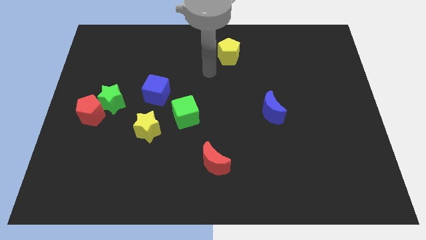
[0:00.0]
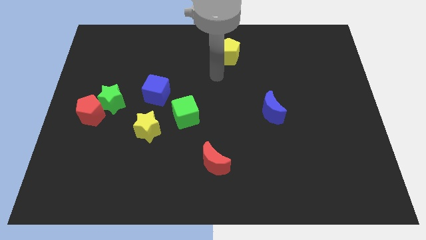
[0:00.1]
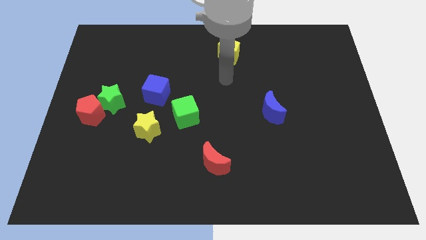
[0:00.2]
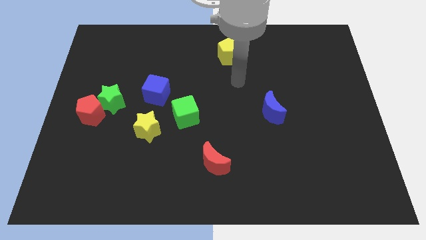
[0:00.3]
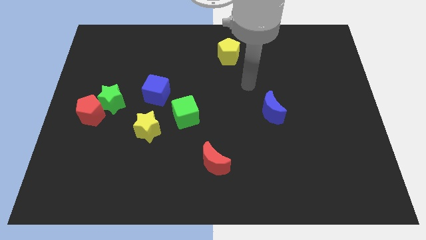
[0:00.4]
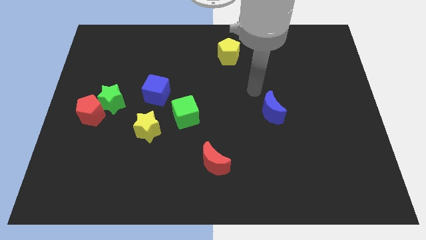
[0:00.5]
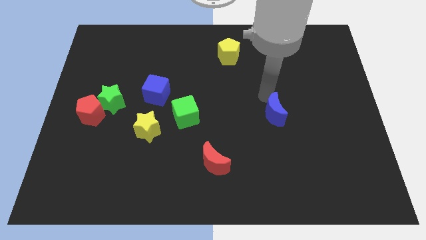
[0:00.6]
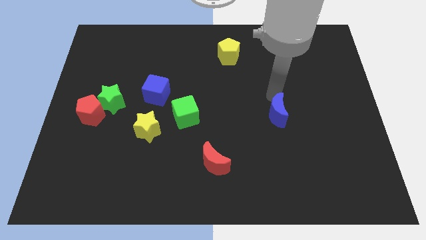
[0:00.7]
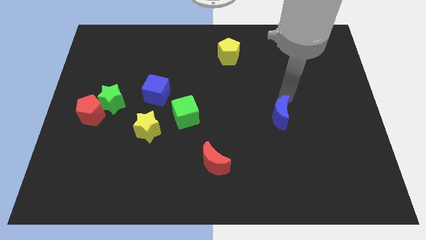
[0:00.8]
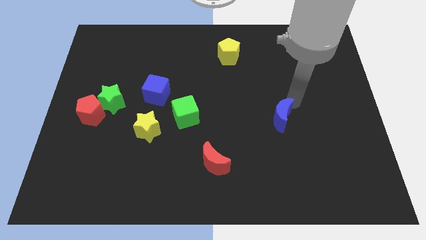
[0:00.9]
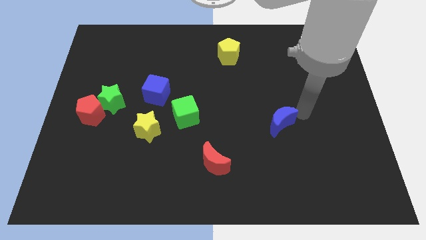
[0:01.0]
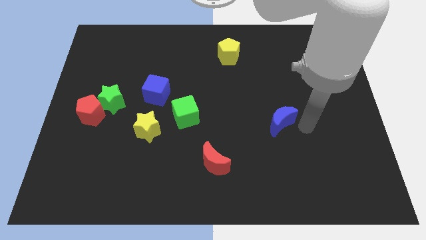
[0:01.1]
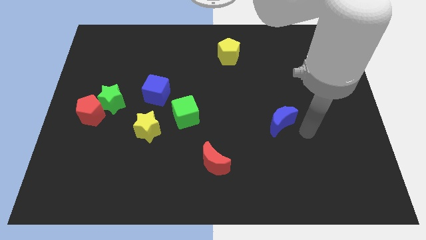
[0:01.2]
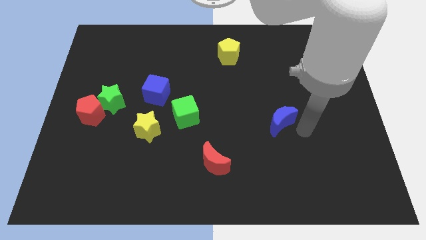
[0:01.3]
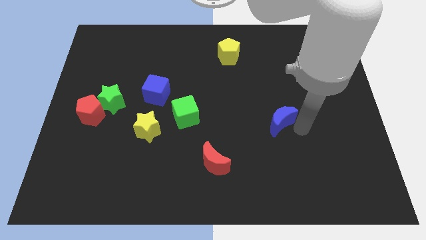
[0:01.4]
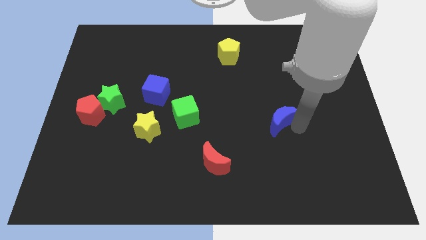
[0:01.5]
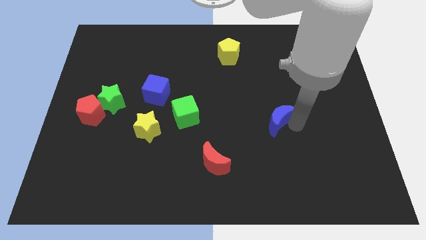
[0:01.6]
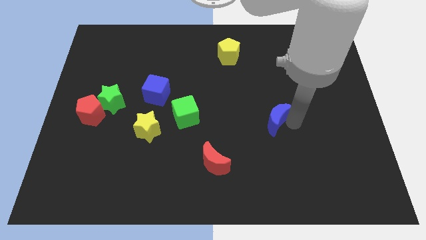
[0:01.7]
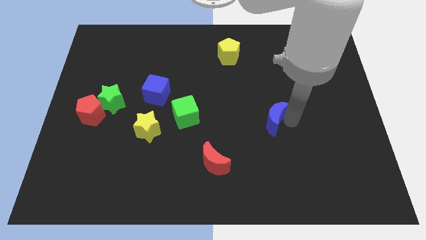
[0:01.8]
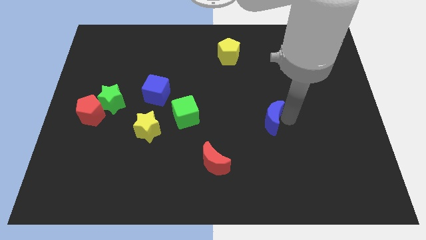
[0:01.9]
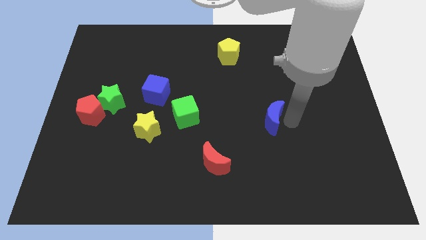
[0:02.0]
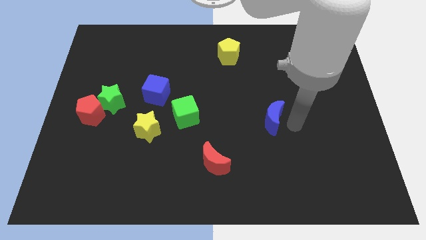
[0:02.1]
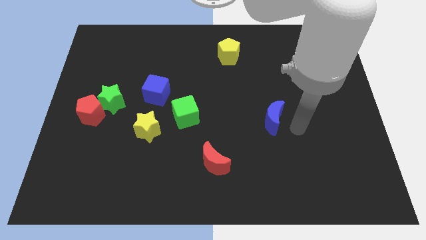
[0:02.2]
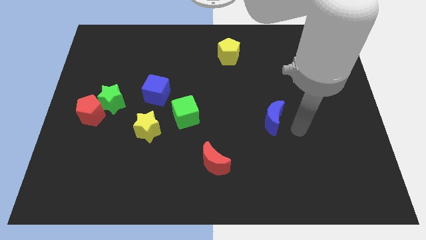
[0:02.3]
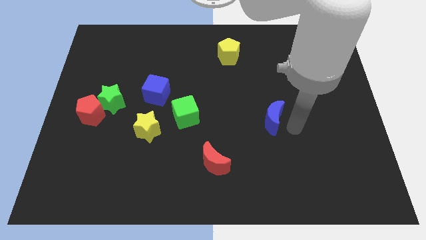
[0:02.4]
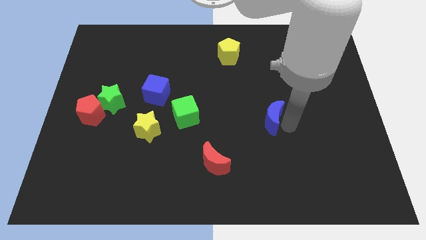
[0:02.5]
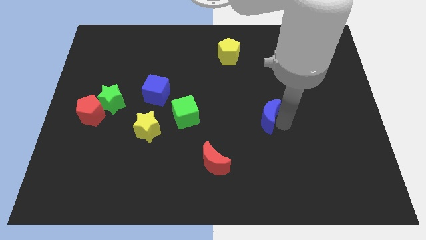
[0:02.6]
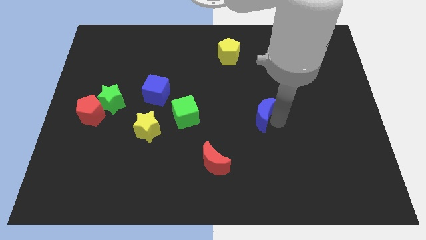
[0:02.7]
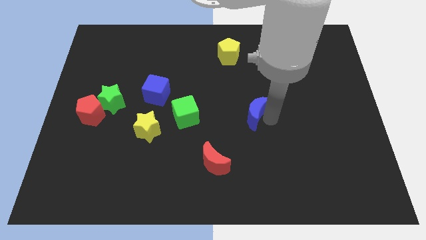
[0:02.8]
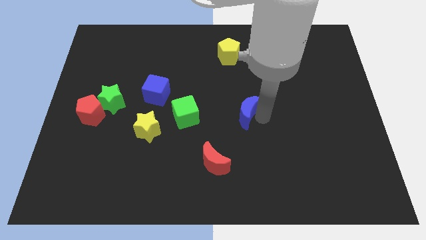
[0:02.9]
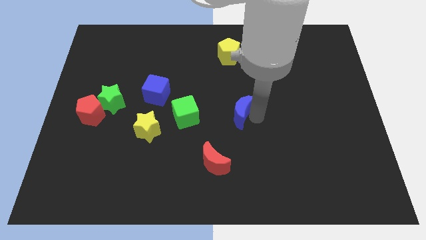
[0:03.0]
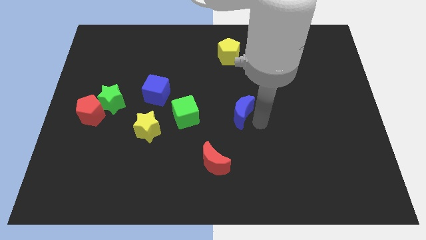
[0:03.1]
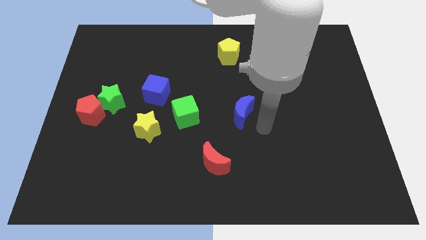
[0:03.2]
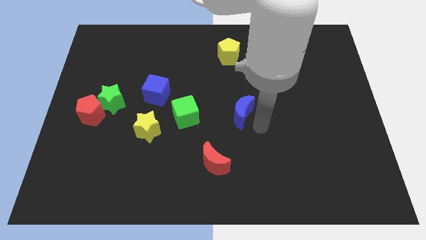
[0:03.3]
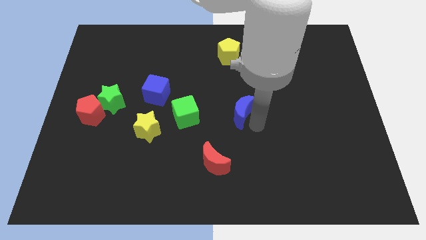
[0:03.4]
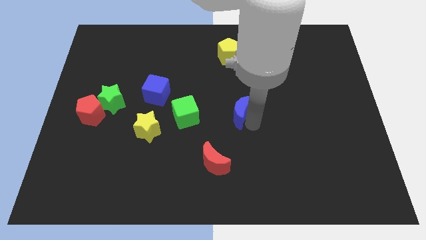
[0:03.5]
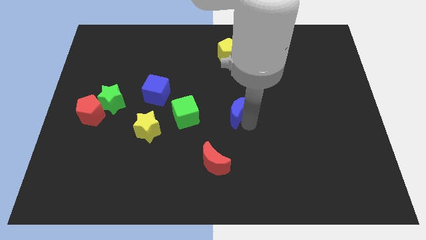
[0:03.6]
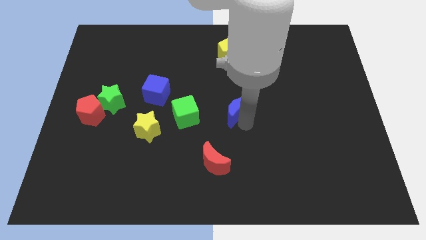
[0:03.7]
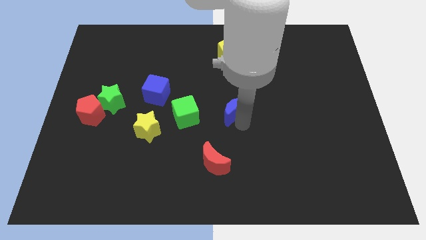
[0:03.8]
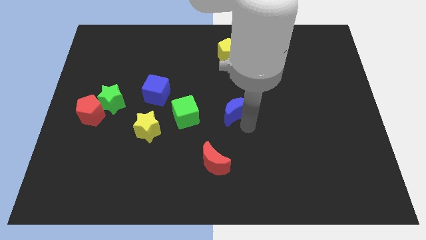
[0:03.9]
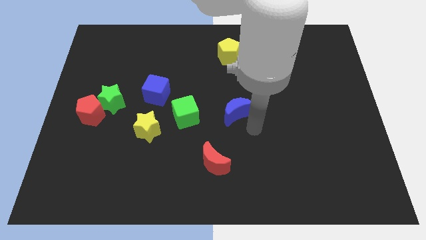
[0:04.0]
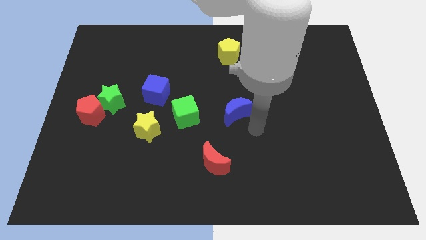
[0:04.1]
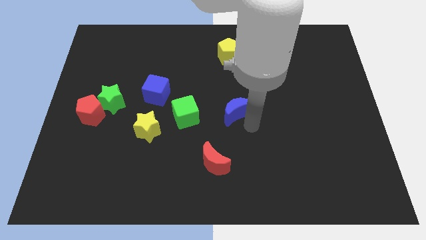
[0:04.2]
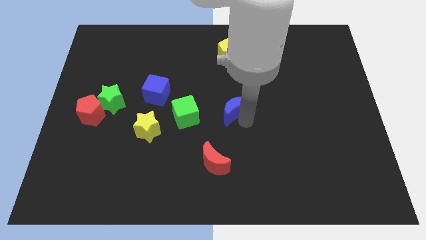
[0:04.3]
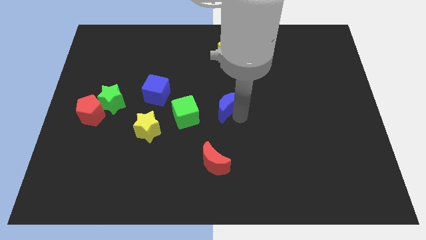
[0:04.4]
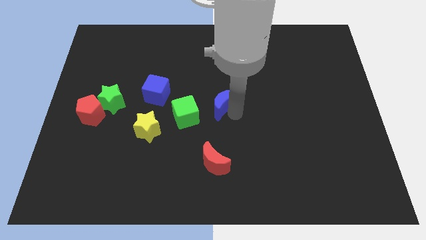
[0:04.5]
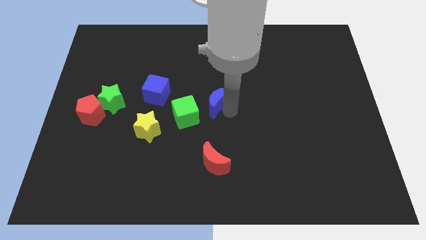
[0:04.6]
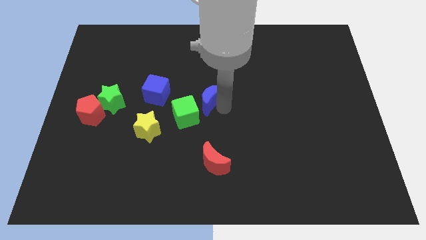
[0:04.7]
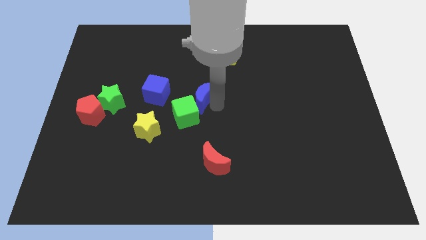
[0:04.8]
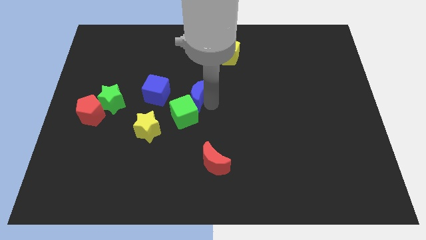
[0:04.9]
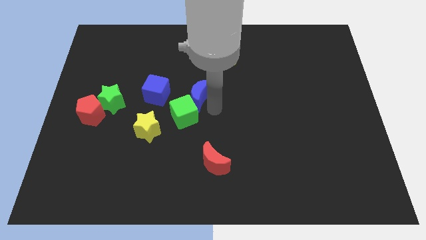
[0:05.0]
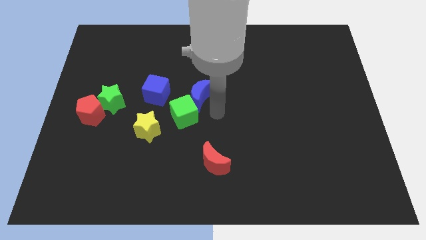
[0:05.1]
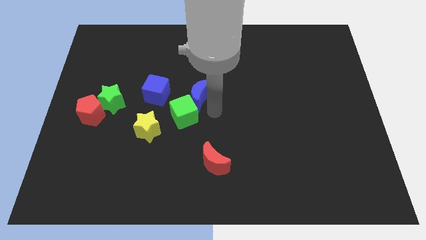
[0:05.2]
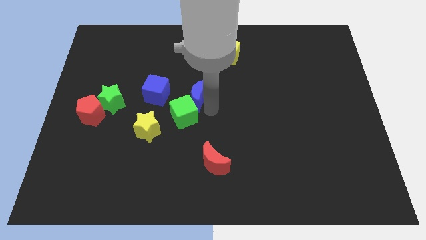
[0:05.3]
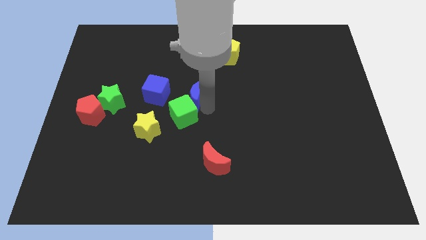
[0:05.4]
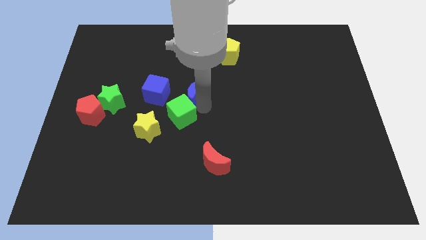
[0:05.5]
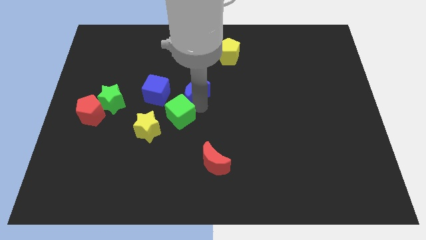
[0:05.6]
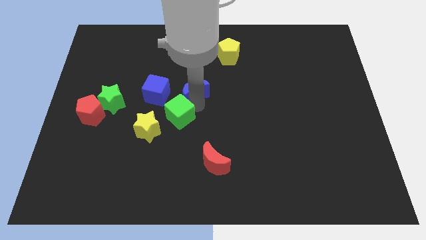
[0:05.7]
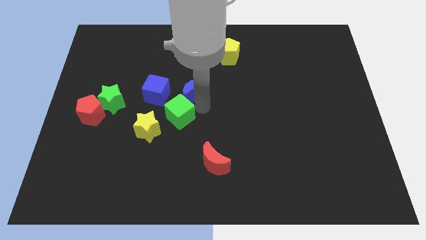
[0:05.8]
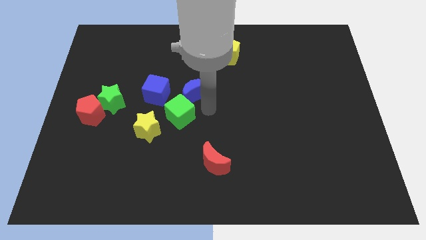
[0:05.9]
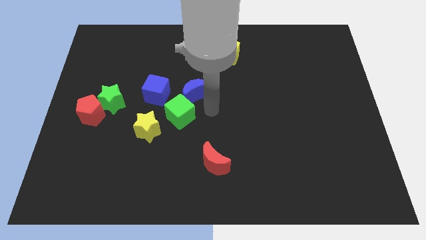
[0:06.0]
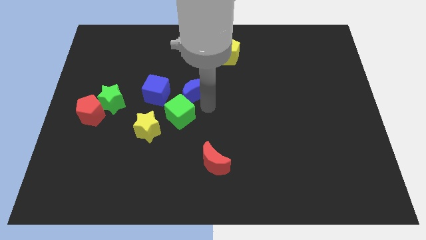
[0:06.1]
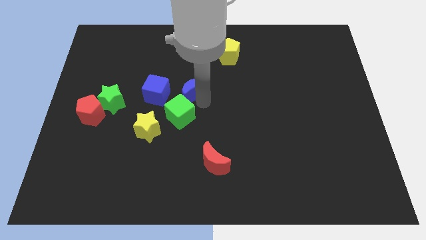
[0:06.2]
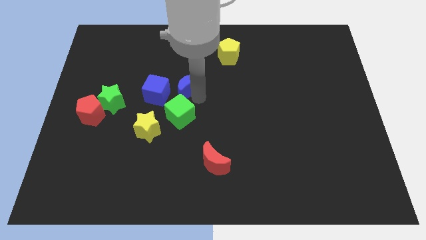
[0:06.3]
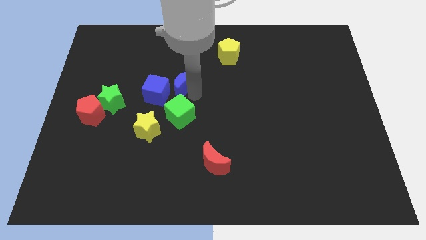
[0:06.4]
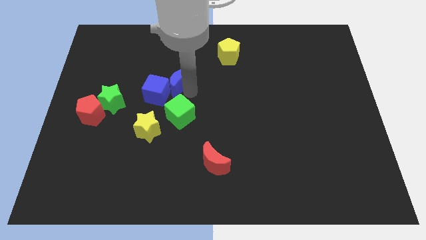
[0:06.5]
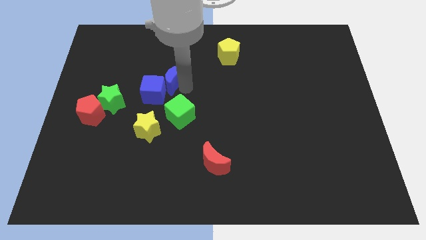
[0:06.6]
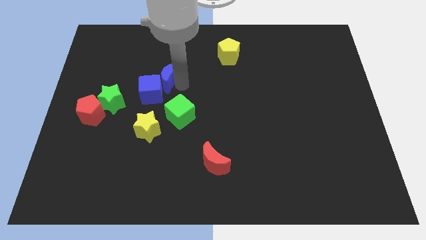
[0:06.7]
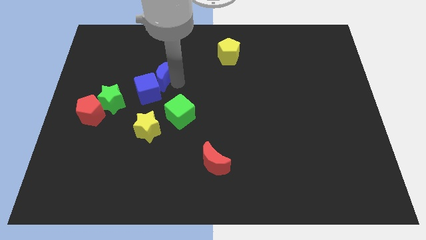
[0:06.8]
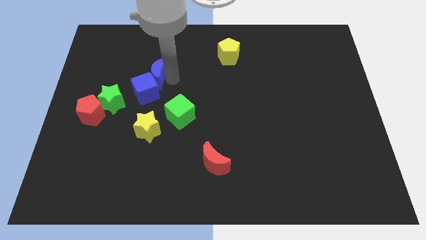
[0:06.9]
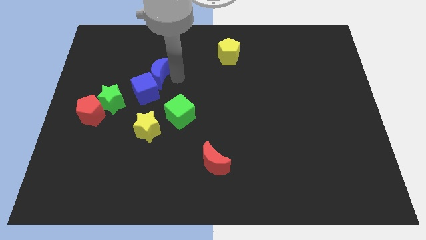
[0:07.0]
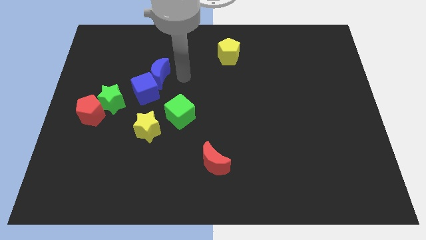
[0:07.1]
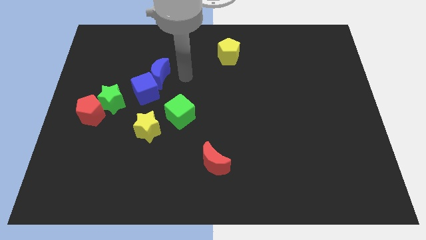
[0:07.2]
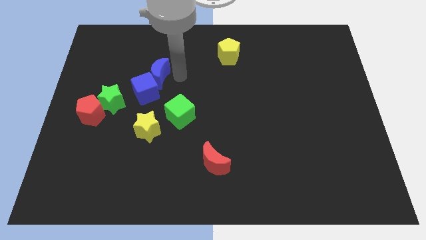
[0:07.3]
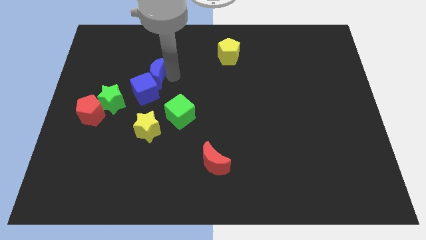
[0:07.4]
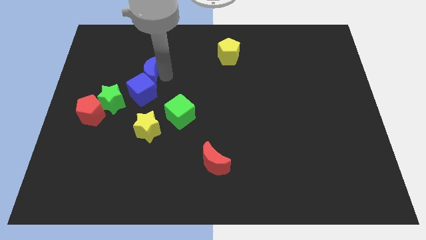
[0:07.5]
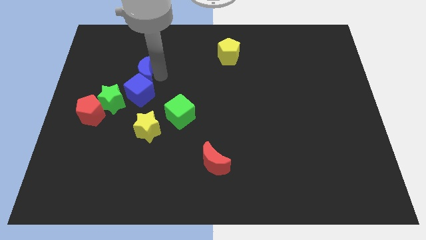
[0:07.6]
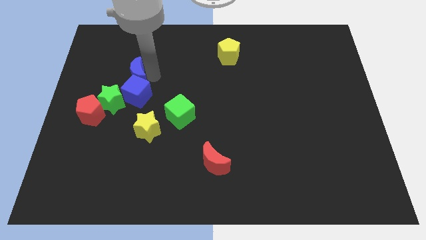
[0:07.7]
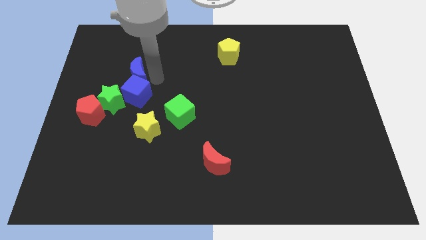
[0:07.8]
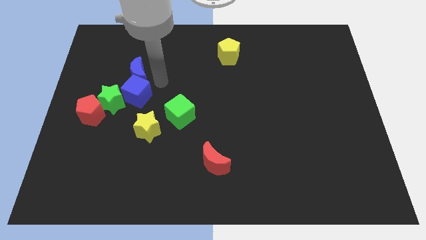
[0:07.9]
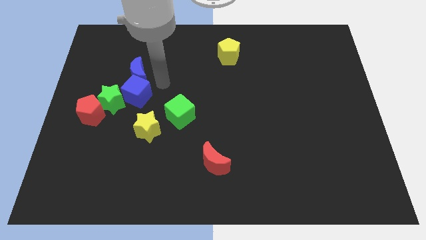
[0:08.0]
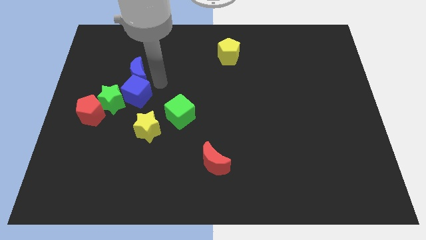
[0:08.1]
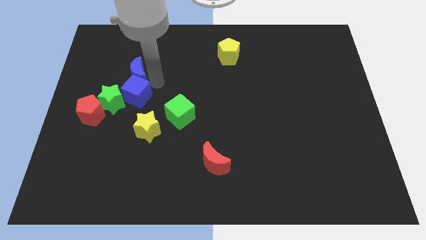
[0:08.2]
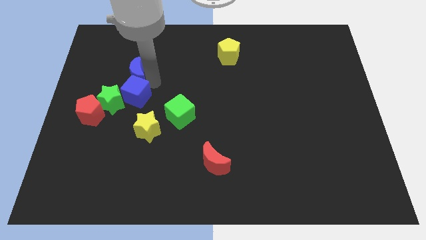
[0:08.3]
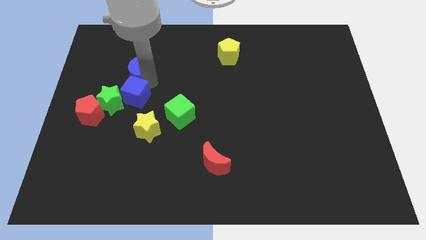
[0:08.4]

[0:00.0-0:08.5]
slide the blue moon to the top of the green star

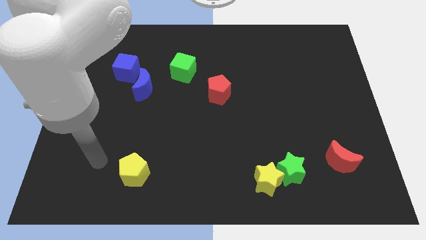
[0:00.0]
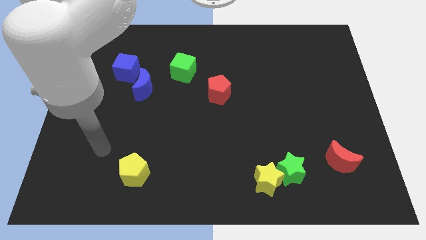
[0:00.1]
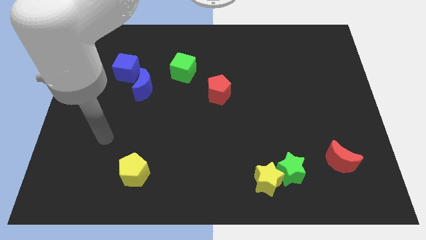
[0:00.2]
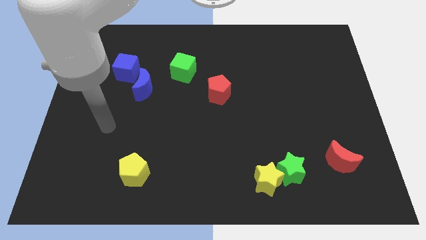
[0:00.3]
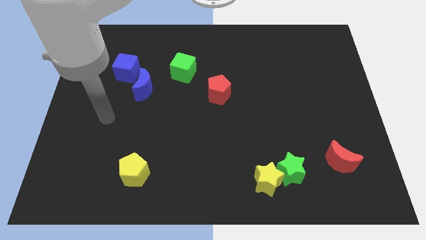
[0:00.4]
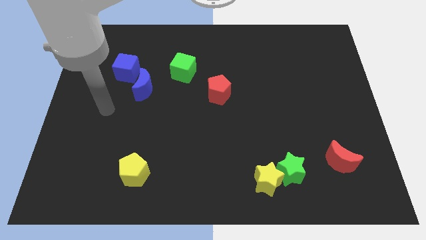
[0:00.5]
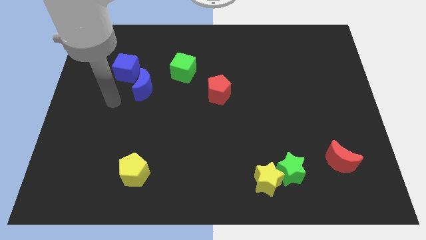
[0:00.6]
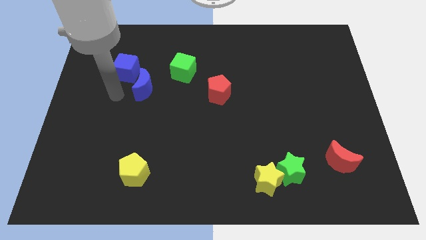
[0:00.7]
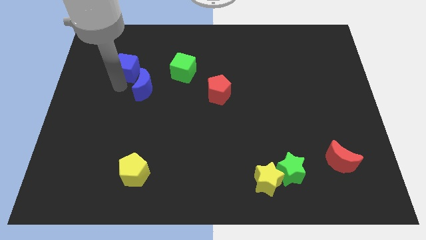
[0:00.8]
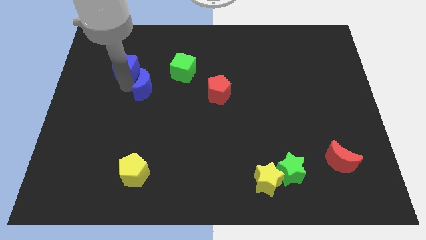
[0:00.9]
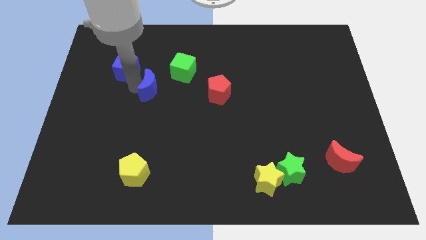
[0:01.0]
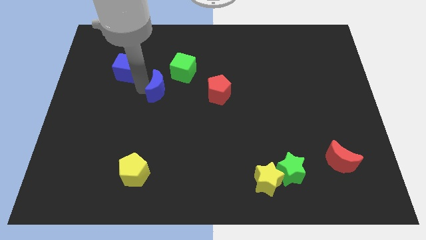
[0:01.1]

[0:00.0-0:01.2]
move the blue moon just left of the red pentagon
